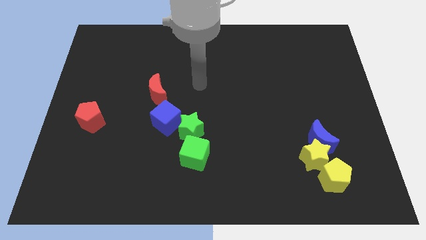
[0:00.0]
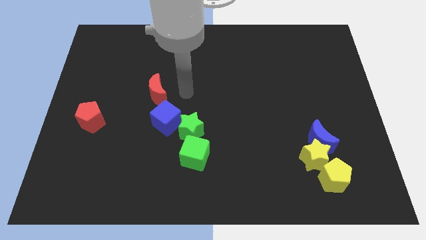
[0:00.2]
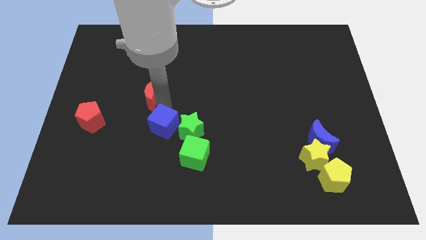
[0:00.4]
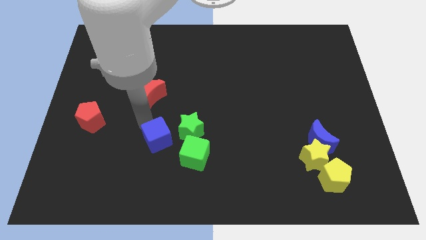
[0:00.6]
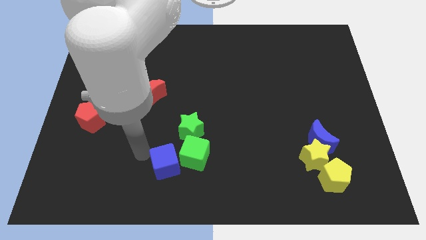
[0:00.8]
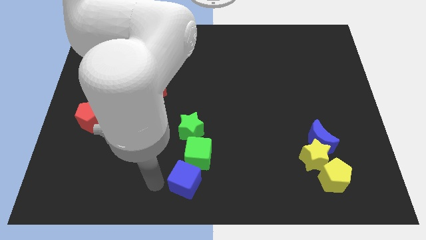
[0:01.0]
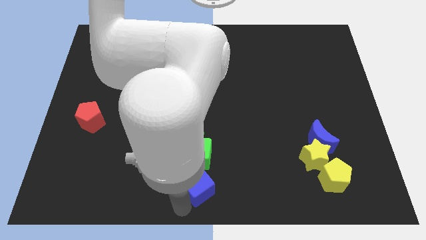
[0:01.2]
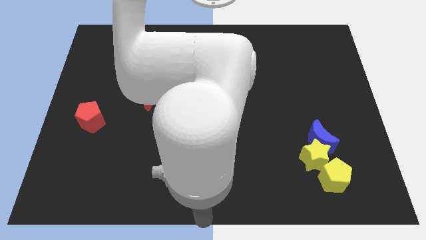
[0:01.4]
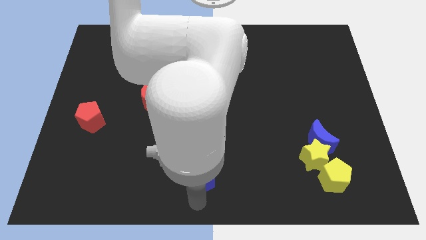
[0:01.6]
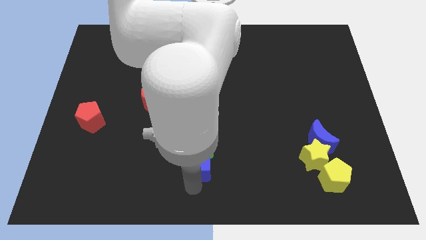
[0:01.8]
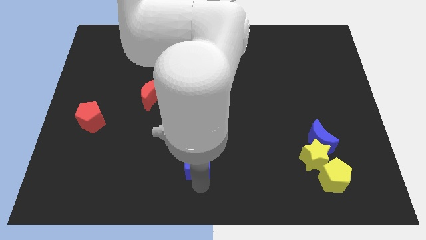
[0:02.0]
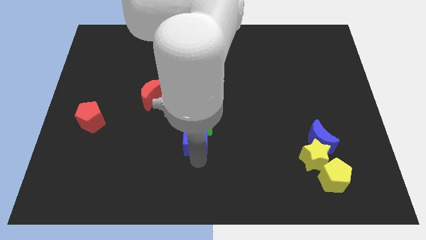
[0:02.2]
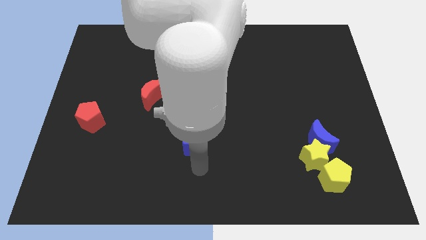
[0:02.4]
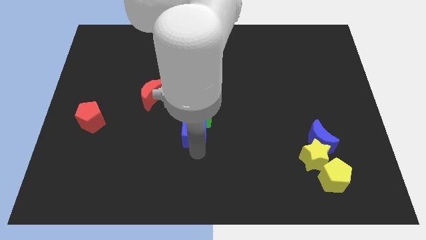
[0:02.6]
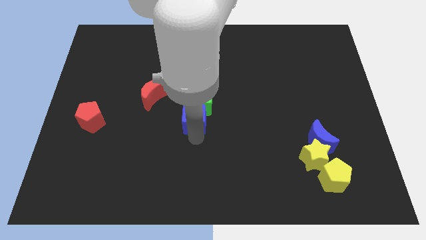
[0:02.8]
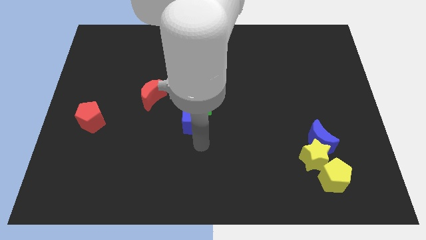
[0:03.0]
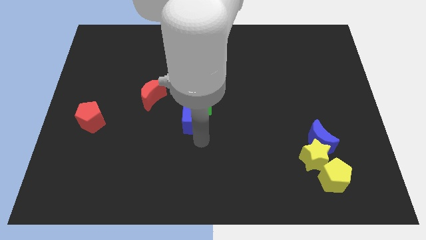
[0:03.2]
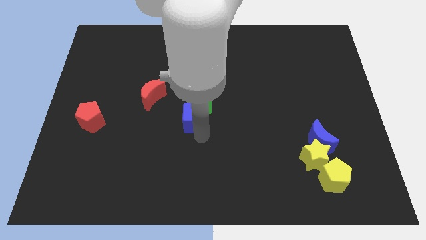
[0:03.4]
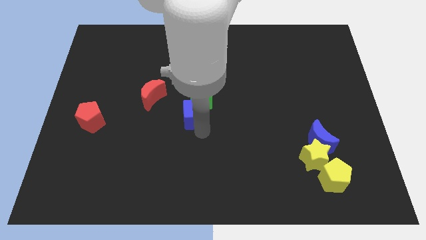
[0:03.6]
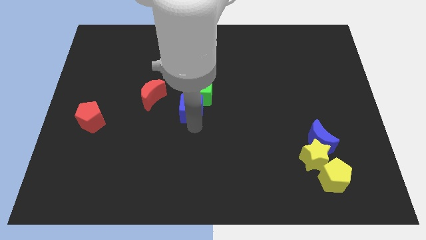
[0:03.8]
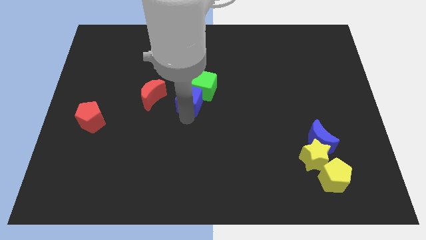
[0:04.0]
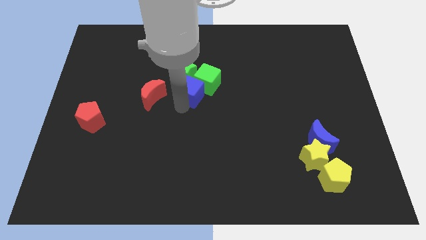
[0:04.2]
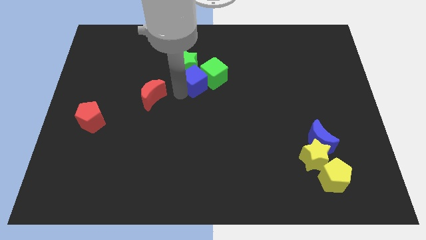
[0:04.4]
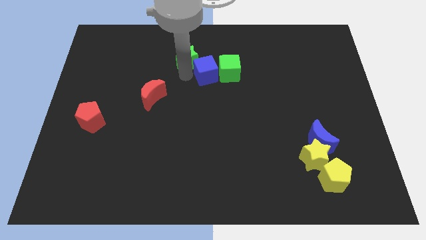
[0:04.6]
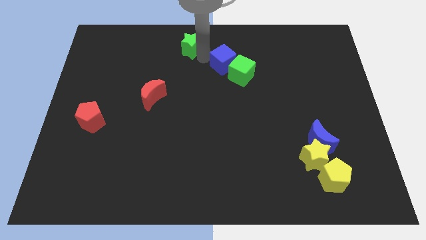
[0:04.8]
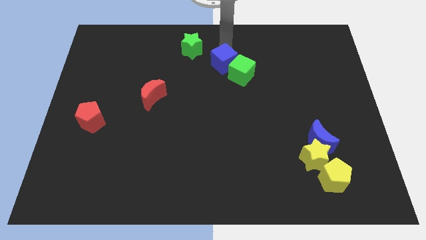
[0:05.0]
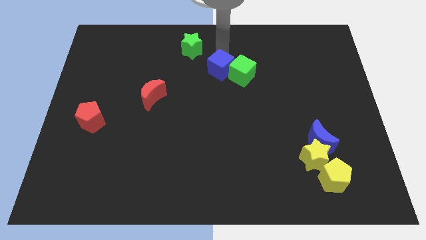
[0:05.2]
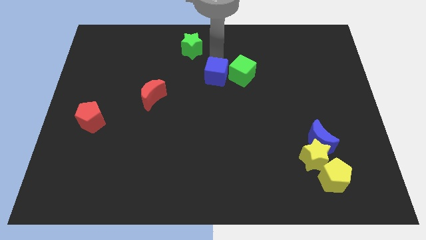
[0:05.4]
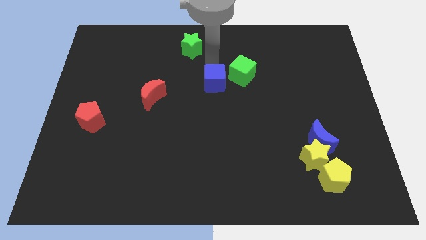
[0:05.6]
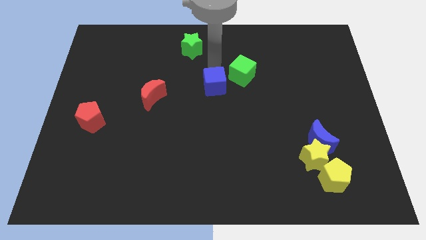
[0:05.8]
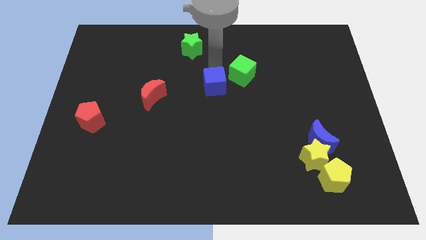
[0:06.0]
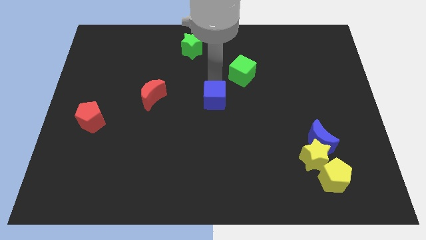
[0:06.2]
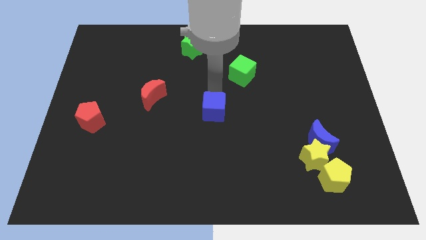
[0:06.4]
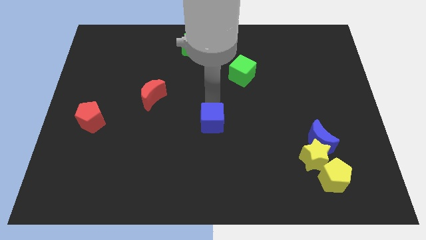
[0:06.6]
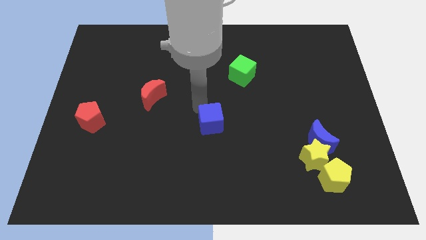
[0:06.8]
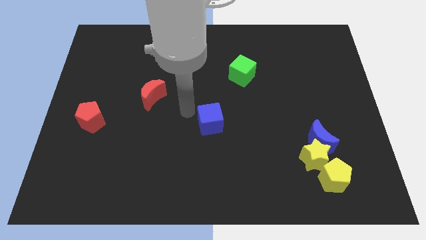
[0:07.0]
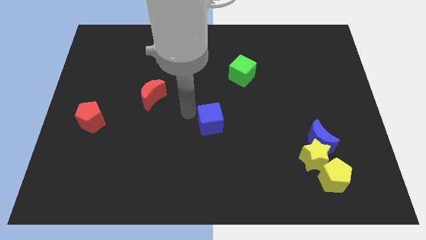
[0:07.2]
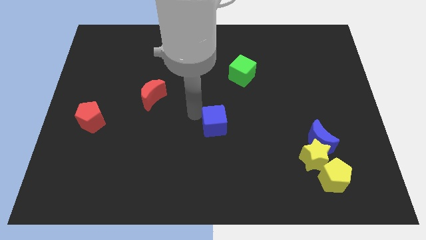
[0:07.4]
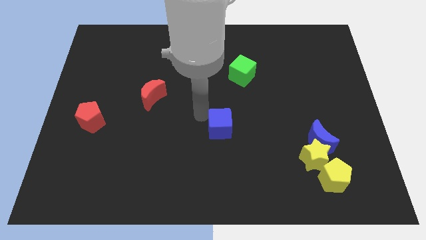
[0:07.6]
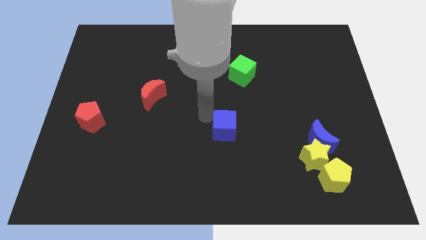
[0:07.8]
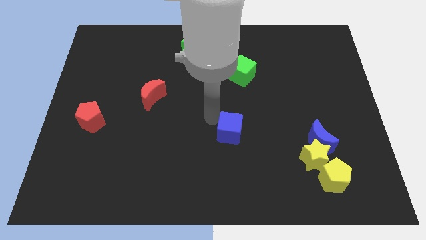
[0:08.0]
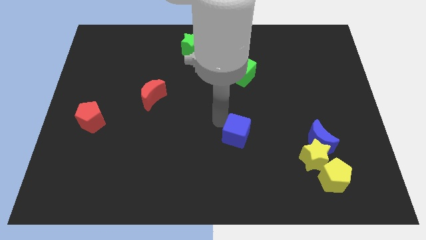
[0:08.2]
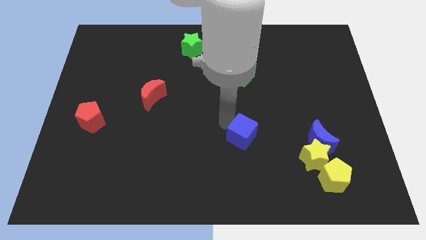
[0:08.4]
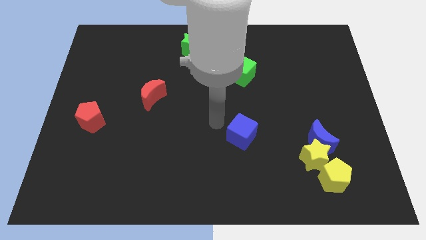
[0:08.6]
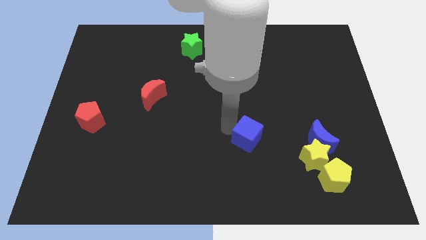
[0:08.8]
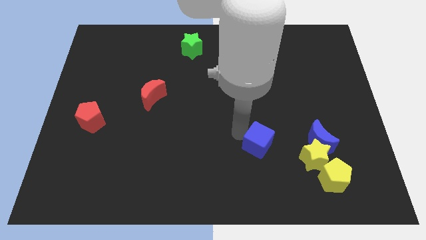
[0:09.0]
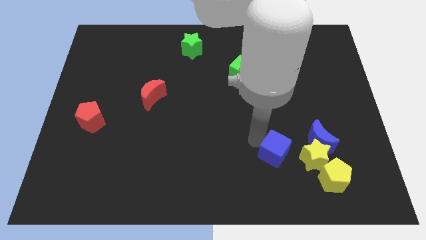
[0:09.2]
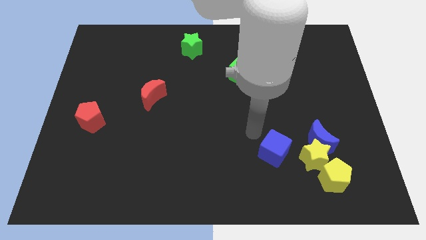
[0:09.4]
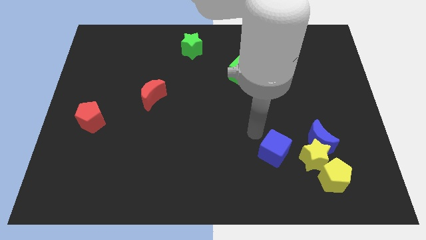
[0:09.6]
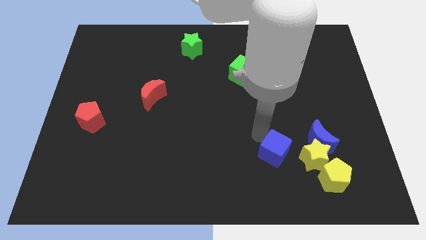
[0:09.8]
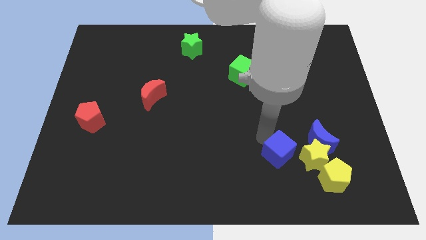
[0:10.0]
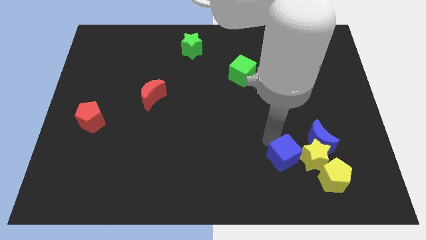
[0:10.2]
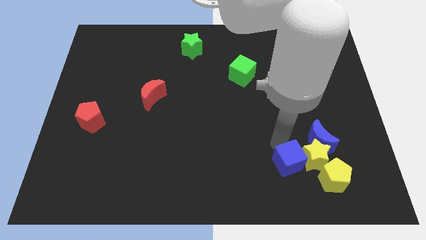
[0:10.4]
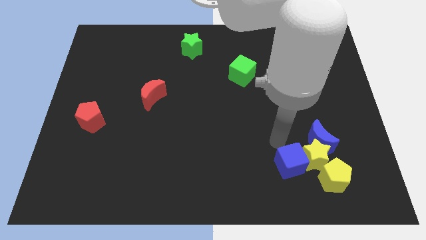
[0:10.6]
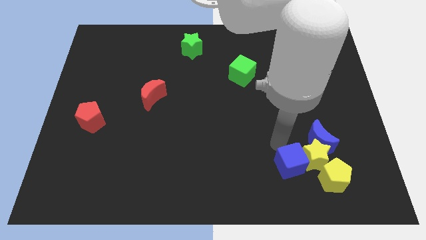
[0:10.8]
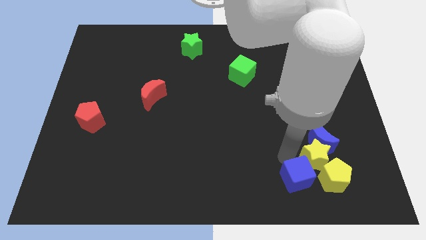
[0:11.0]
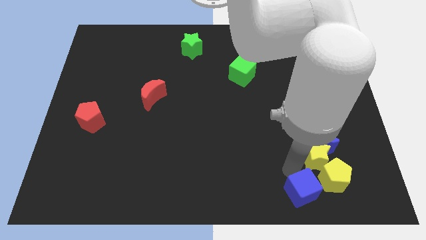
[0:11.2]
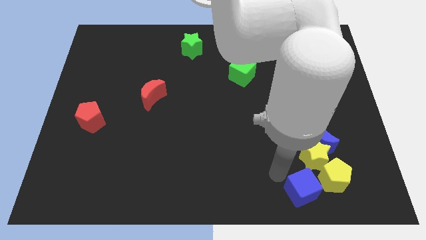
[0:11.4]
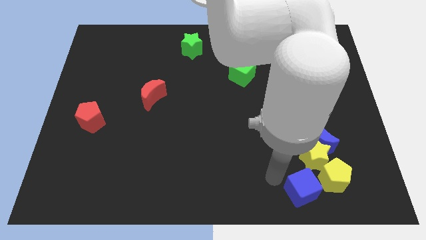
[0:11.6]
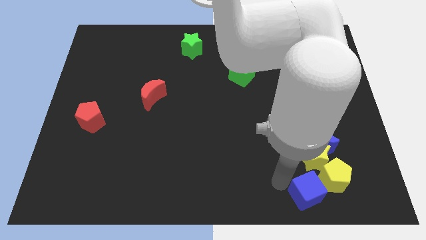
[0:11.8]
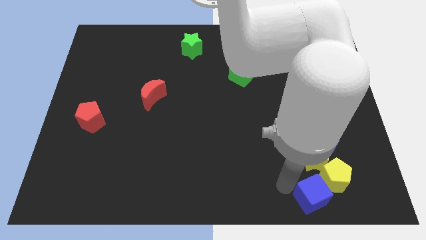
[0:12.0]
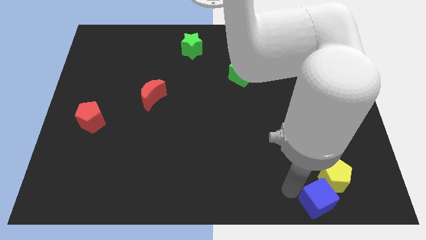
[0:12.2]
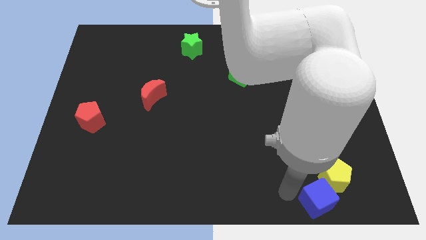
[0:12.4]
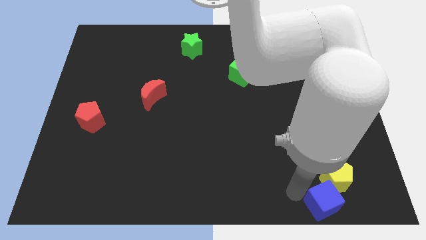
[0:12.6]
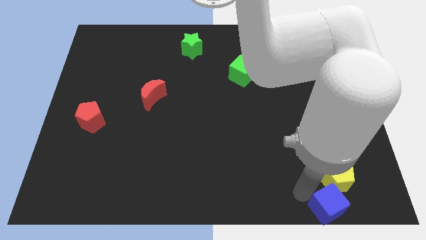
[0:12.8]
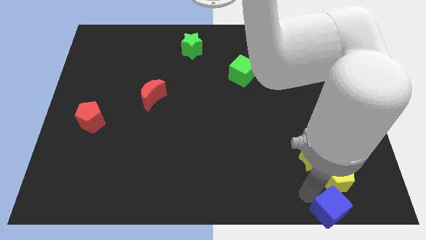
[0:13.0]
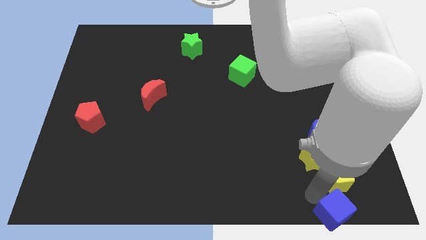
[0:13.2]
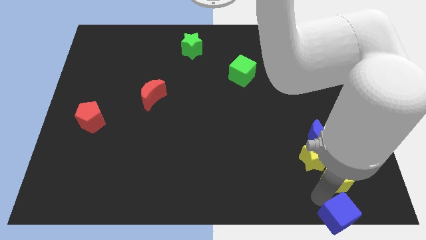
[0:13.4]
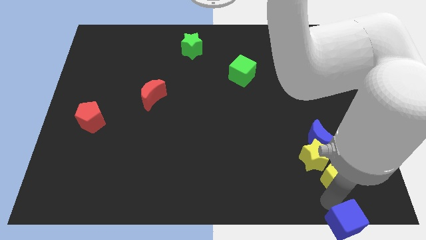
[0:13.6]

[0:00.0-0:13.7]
put the blue cube to the lower right corner
